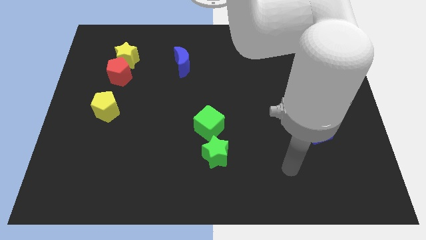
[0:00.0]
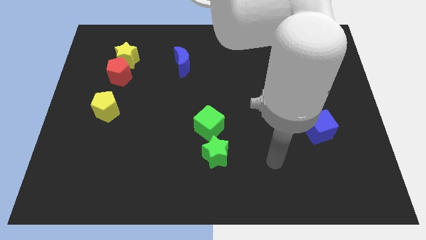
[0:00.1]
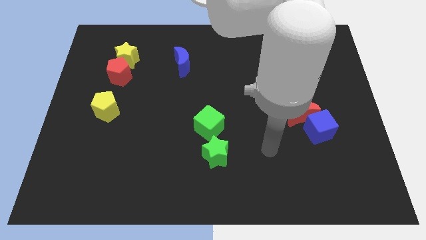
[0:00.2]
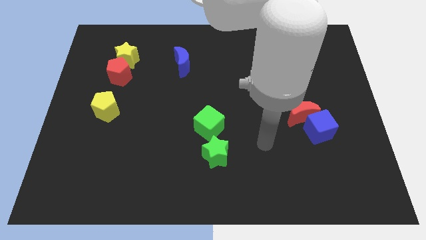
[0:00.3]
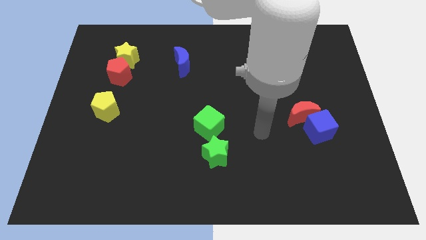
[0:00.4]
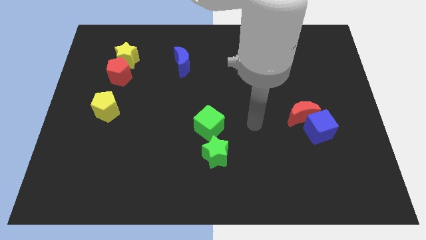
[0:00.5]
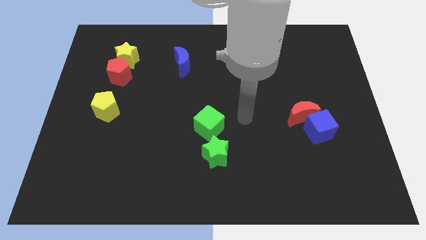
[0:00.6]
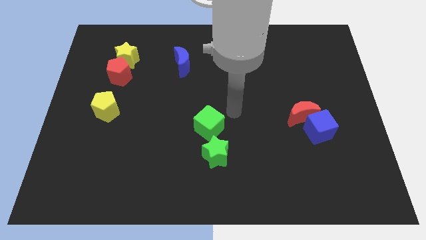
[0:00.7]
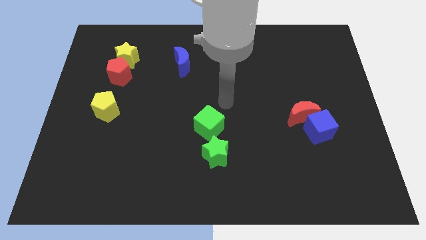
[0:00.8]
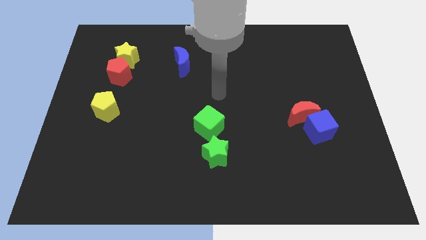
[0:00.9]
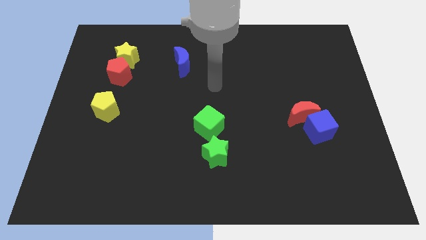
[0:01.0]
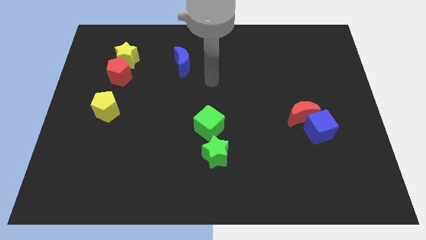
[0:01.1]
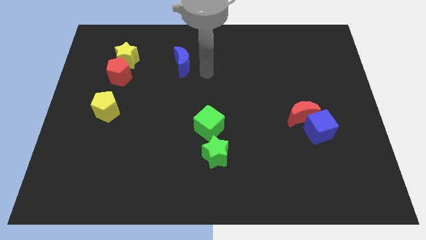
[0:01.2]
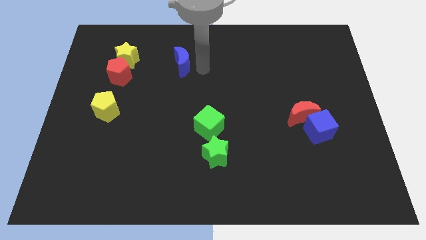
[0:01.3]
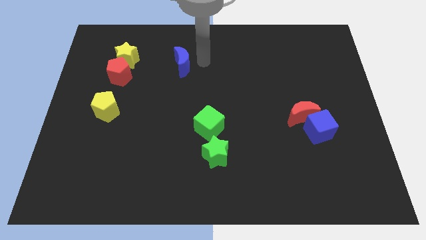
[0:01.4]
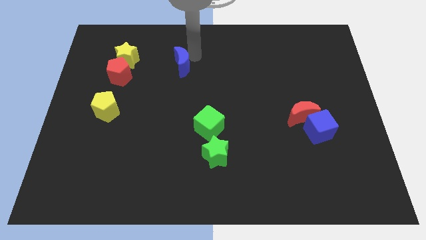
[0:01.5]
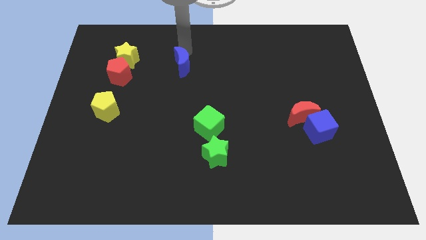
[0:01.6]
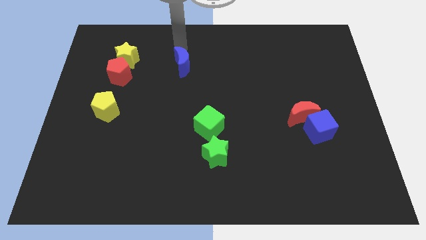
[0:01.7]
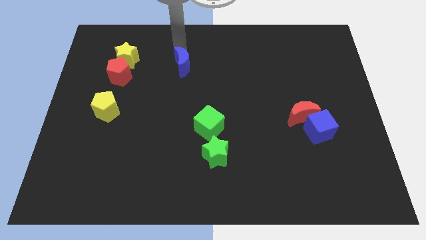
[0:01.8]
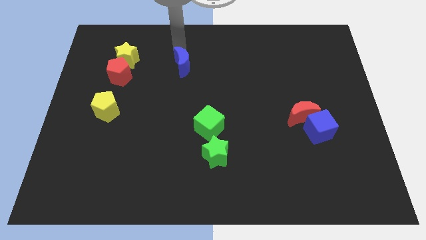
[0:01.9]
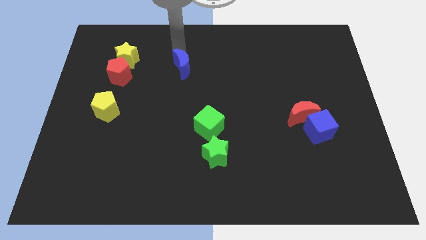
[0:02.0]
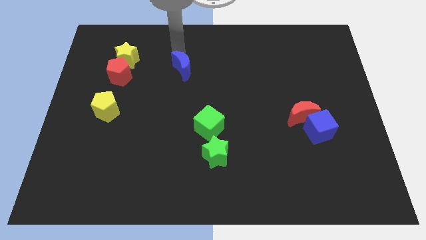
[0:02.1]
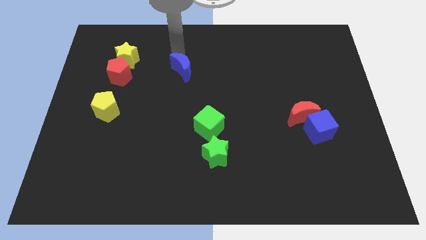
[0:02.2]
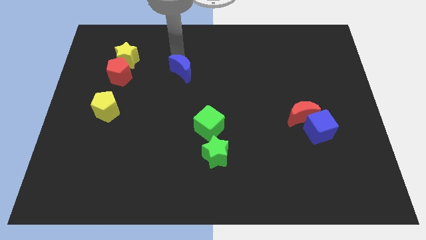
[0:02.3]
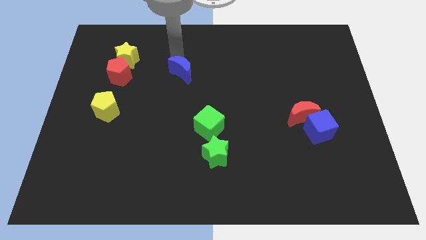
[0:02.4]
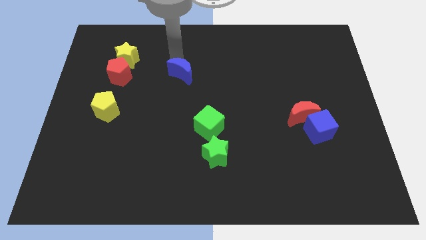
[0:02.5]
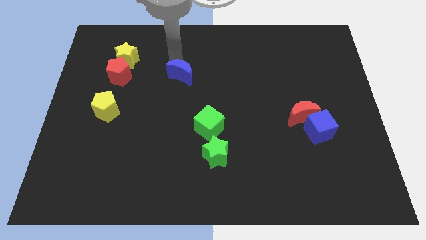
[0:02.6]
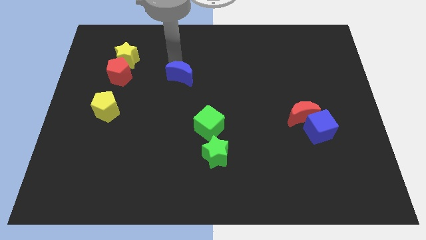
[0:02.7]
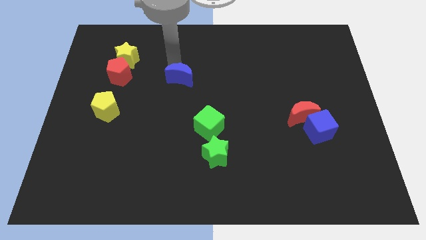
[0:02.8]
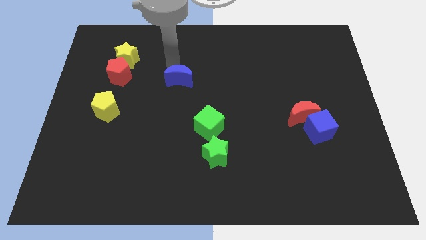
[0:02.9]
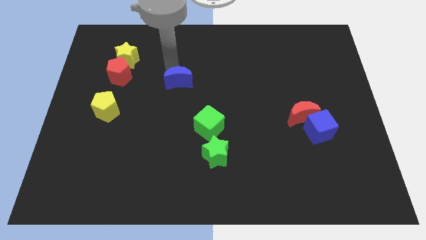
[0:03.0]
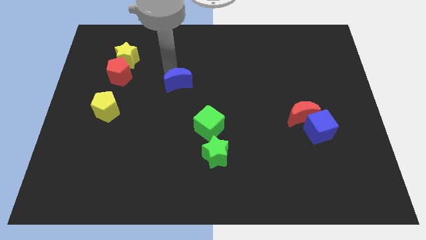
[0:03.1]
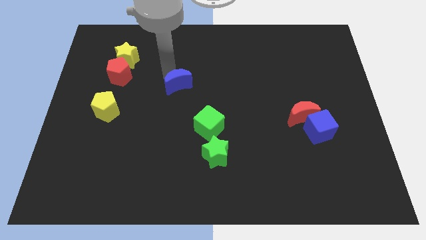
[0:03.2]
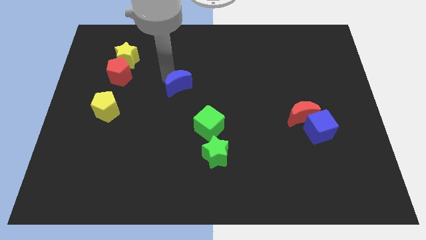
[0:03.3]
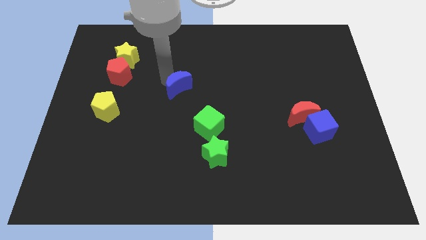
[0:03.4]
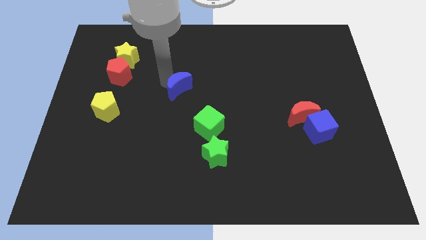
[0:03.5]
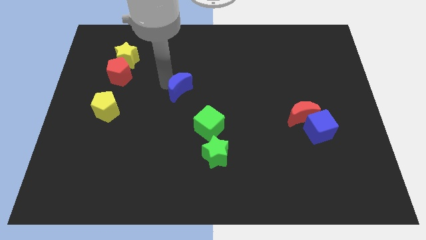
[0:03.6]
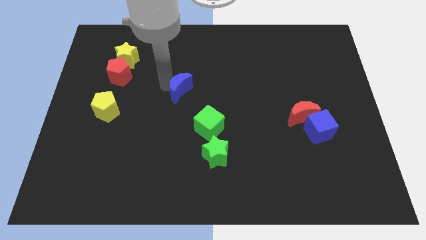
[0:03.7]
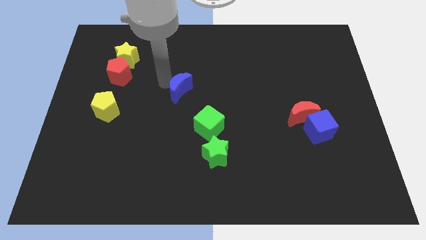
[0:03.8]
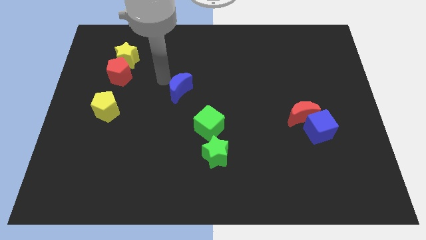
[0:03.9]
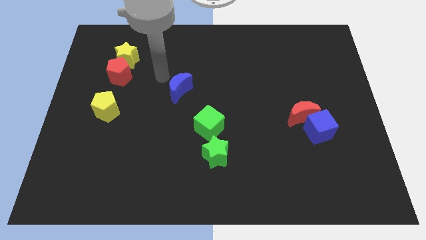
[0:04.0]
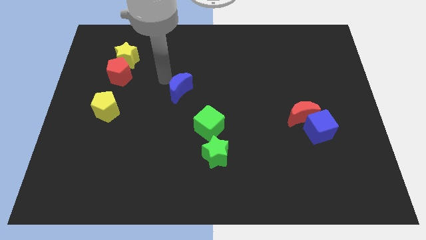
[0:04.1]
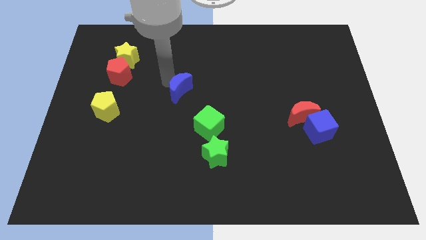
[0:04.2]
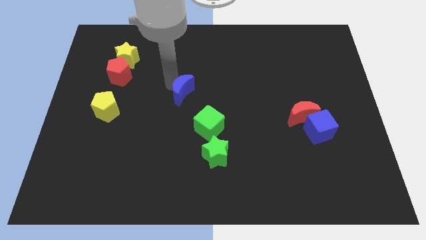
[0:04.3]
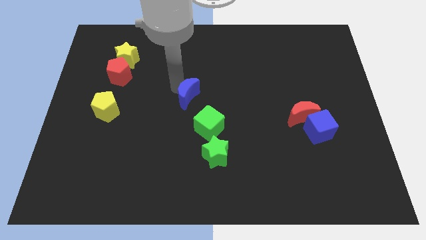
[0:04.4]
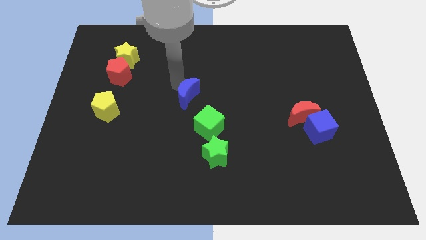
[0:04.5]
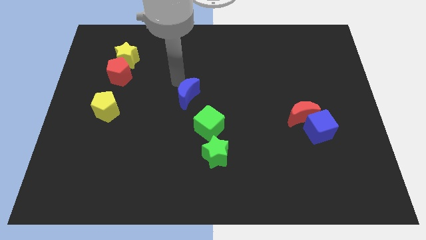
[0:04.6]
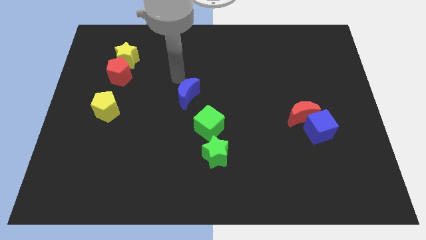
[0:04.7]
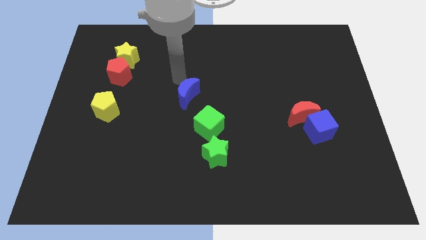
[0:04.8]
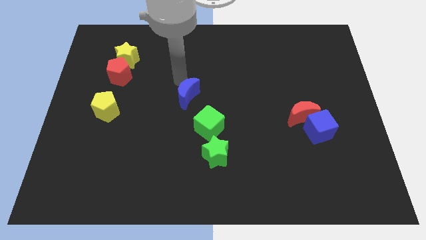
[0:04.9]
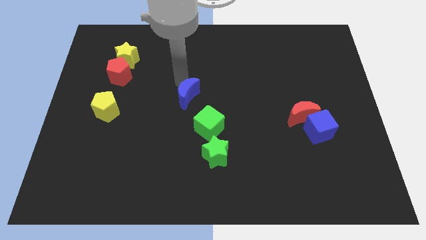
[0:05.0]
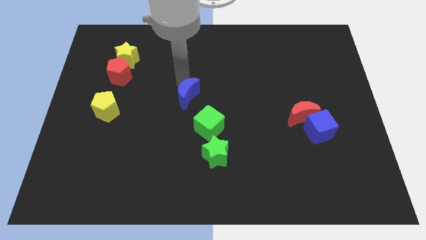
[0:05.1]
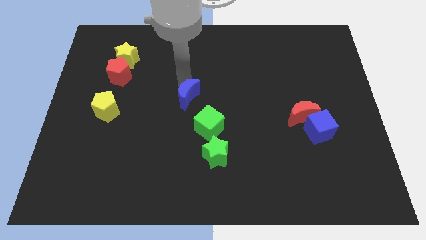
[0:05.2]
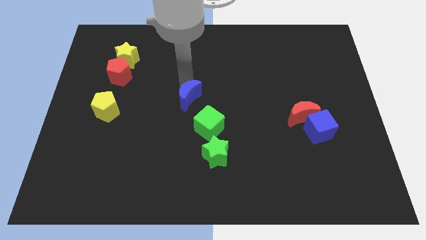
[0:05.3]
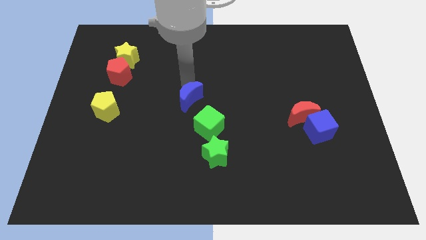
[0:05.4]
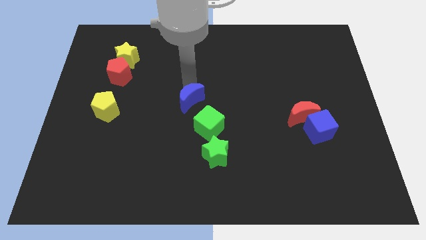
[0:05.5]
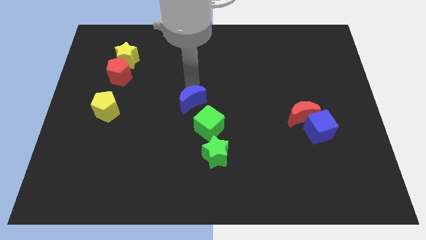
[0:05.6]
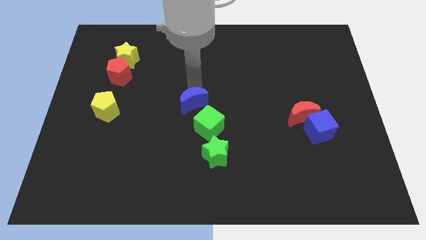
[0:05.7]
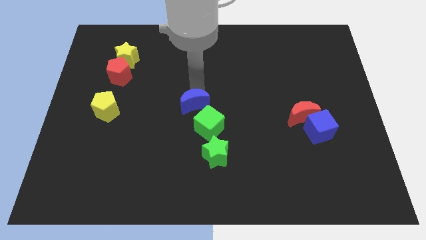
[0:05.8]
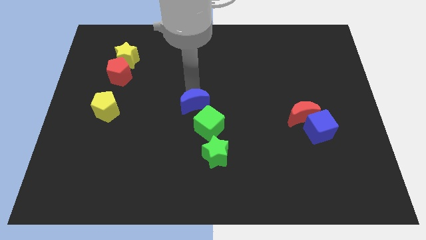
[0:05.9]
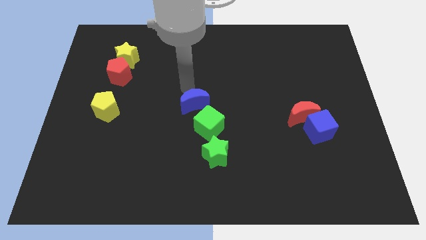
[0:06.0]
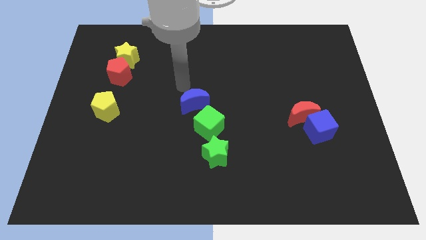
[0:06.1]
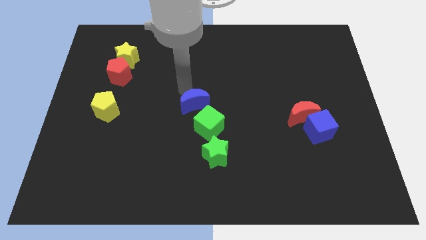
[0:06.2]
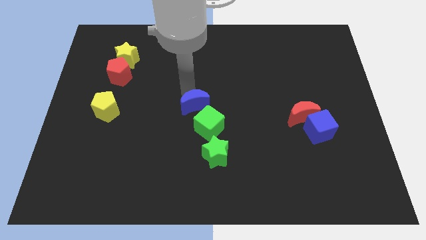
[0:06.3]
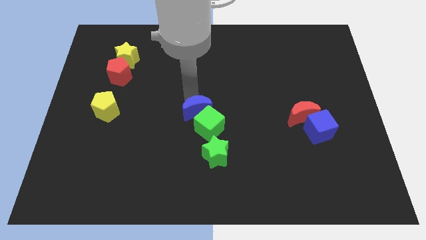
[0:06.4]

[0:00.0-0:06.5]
put the blue moon to the green cube
